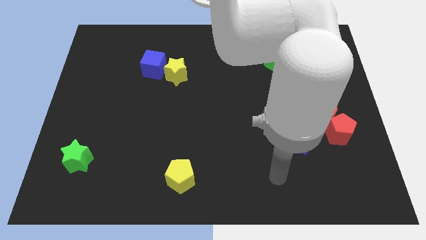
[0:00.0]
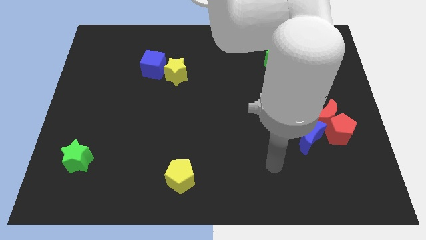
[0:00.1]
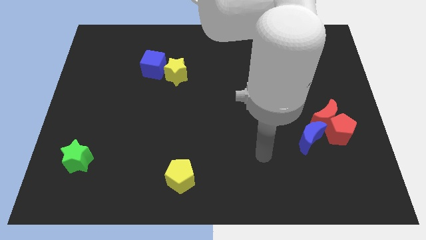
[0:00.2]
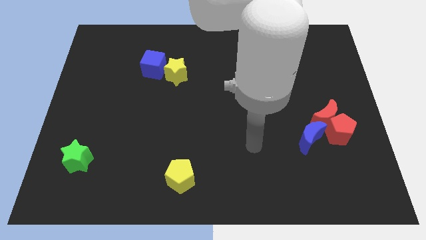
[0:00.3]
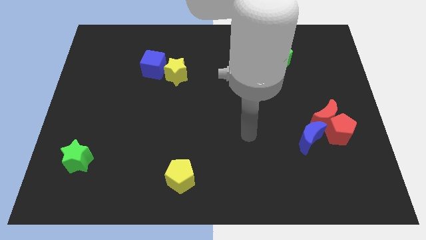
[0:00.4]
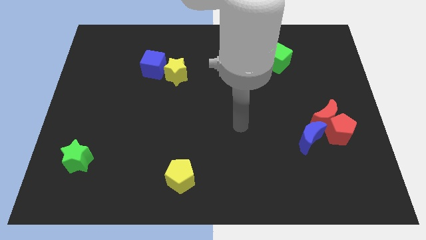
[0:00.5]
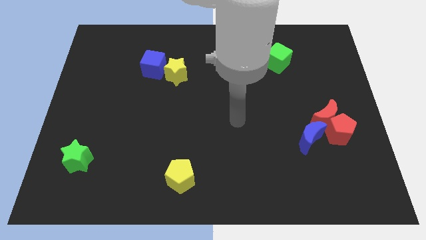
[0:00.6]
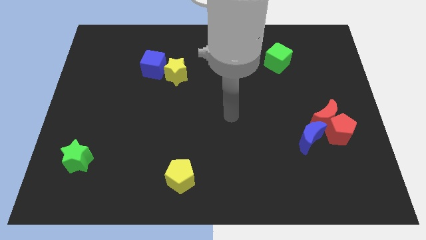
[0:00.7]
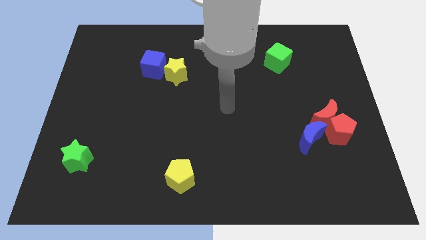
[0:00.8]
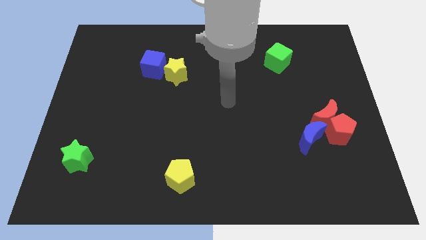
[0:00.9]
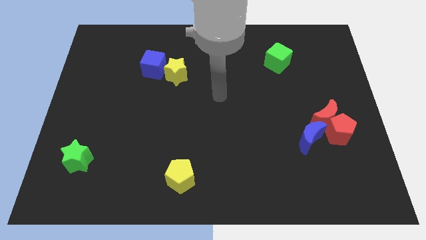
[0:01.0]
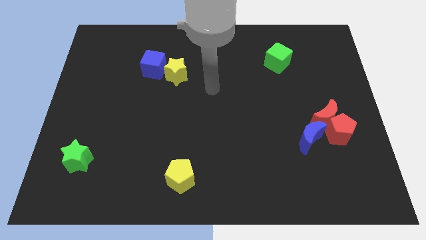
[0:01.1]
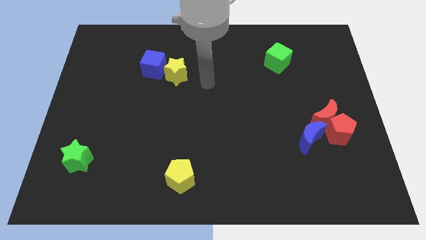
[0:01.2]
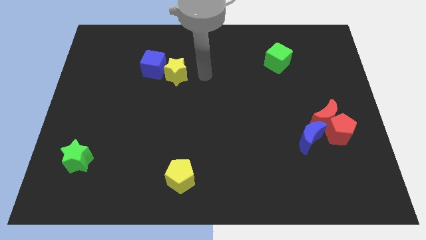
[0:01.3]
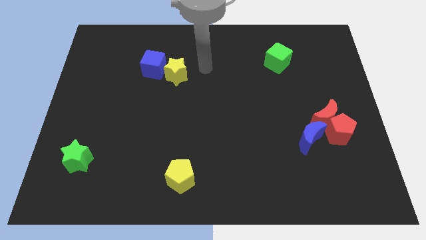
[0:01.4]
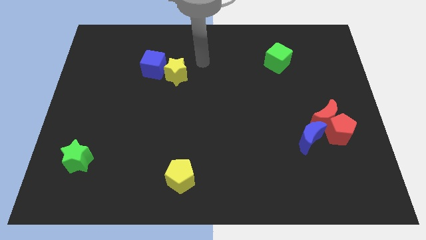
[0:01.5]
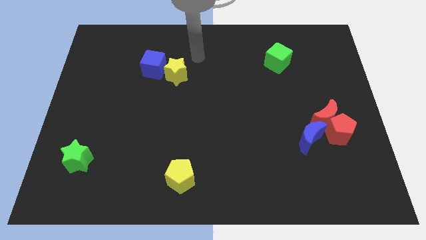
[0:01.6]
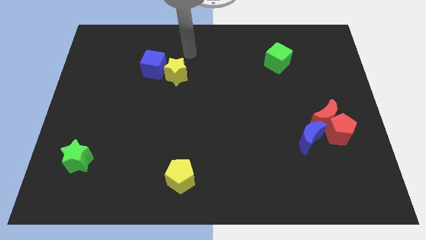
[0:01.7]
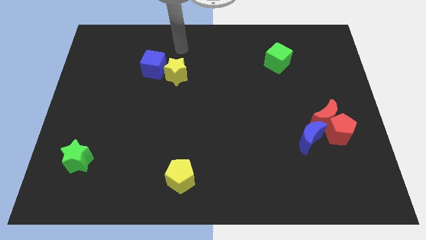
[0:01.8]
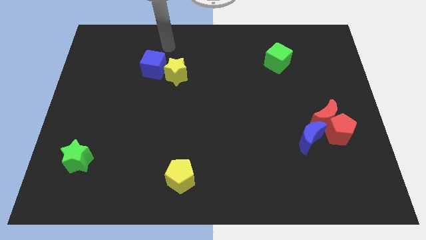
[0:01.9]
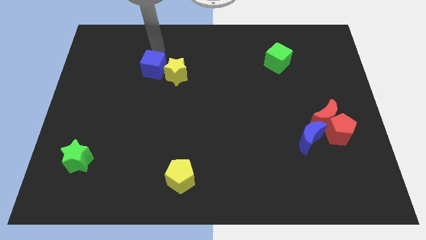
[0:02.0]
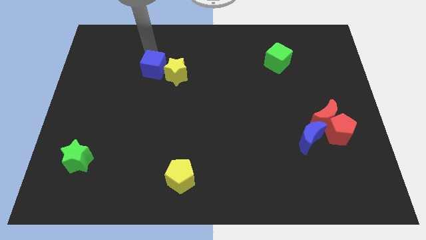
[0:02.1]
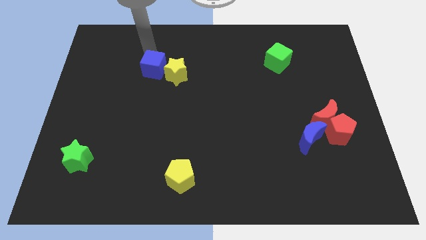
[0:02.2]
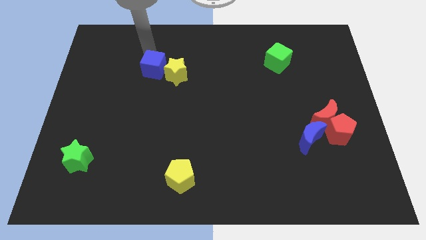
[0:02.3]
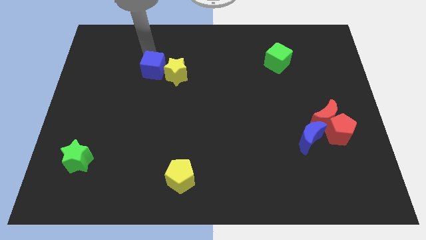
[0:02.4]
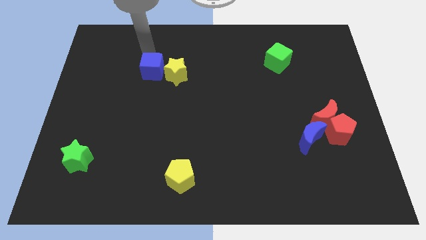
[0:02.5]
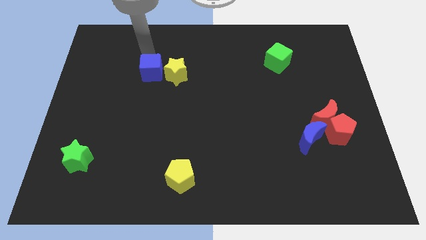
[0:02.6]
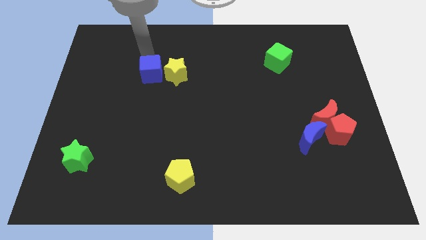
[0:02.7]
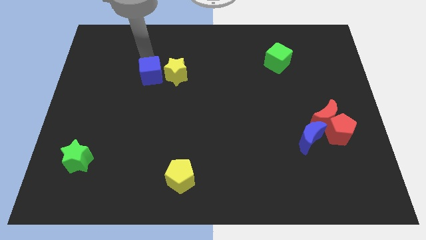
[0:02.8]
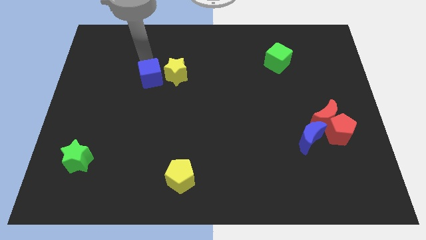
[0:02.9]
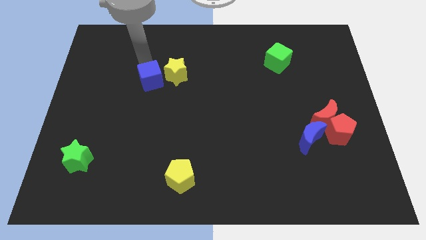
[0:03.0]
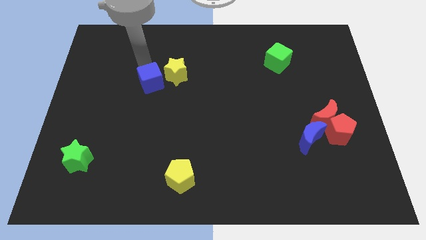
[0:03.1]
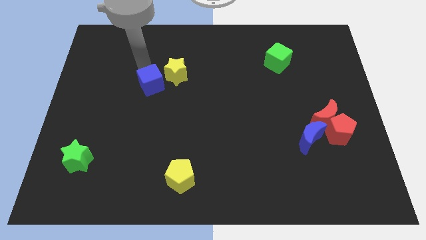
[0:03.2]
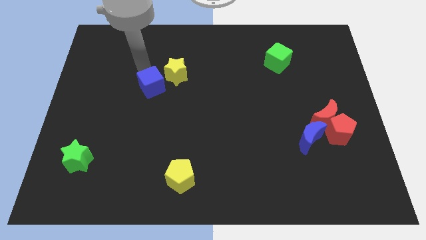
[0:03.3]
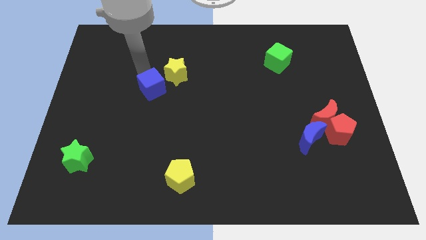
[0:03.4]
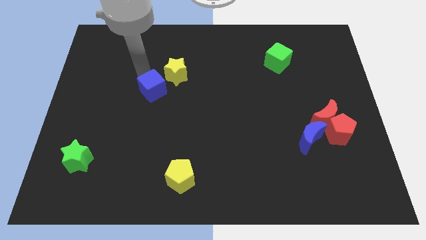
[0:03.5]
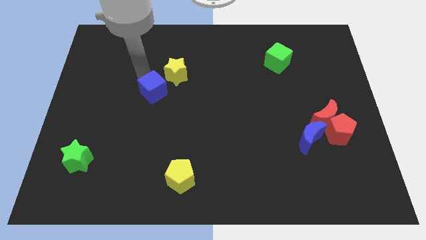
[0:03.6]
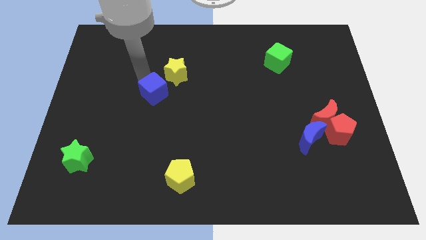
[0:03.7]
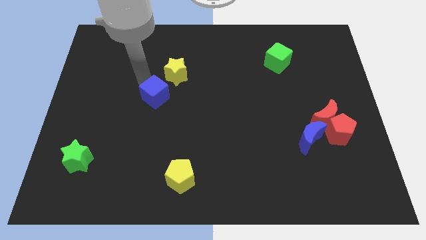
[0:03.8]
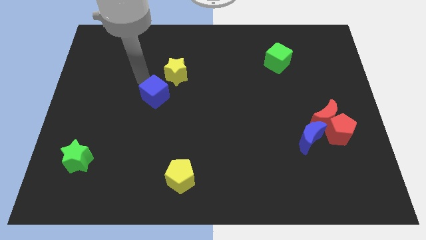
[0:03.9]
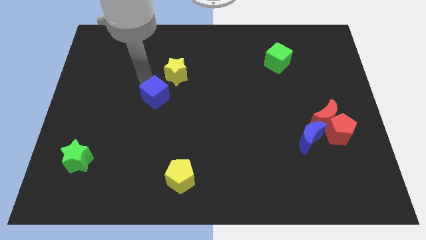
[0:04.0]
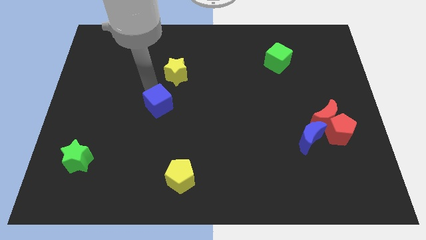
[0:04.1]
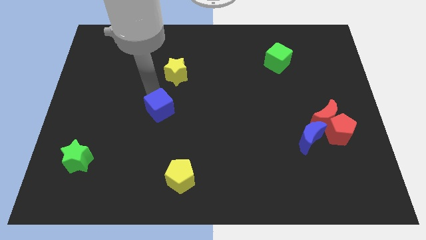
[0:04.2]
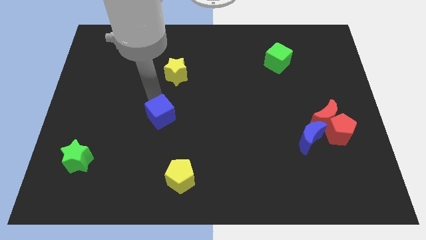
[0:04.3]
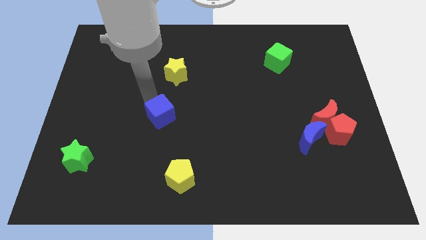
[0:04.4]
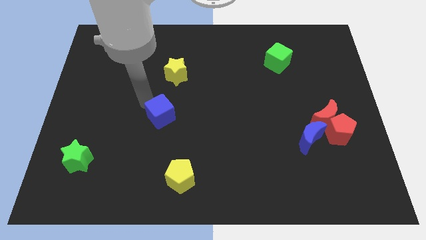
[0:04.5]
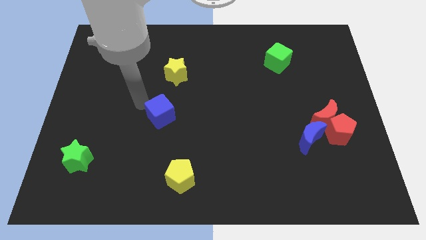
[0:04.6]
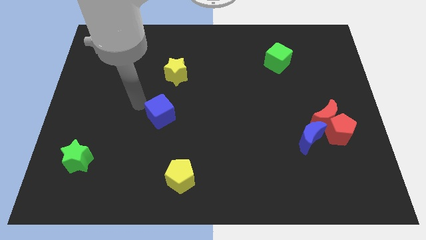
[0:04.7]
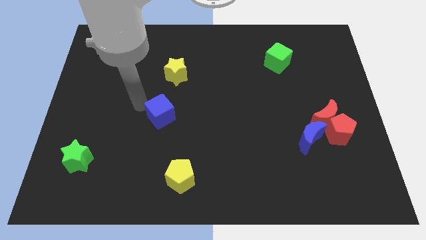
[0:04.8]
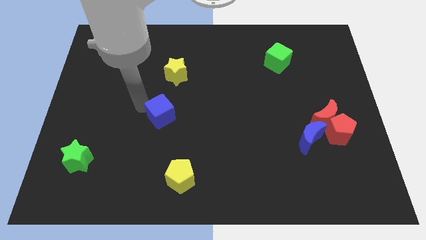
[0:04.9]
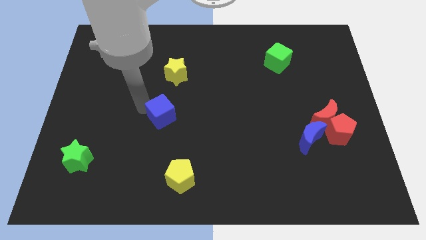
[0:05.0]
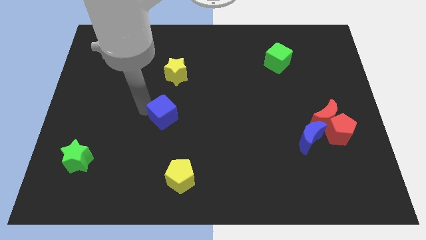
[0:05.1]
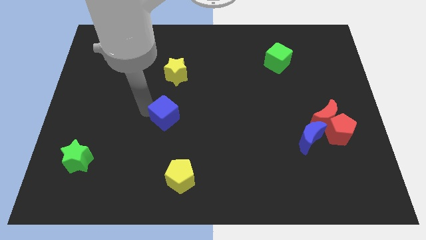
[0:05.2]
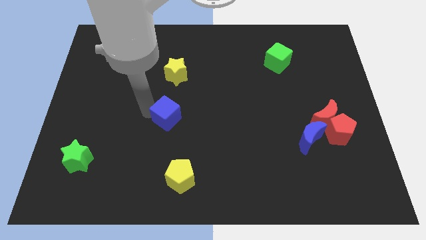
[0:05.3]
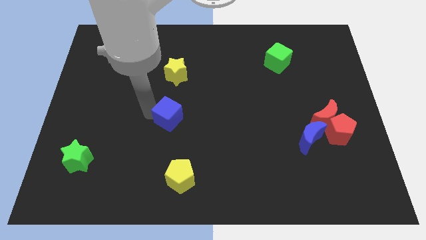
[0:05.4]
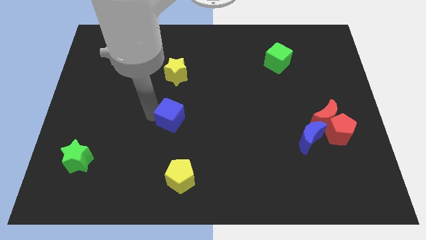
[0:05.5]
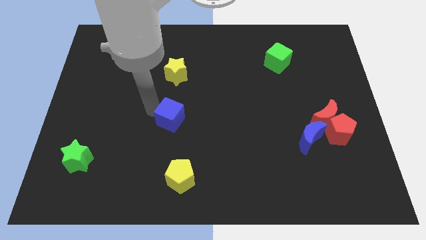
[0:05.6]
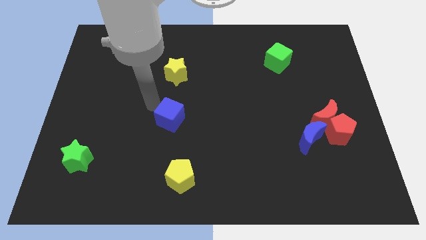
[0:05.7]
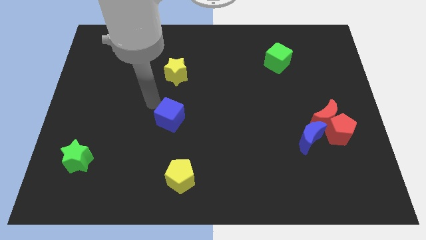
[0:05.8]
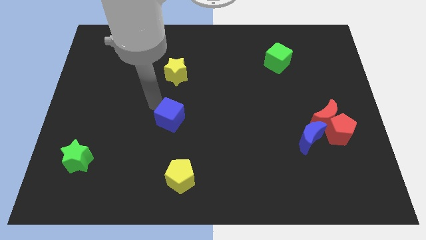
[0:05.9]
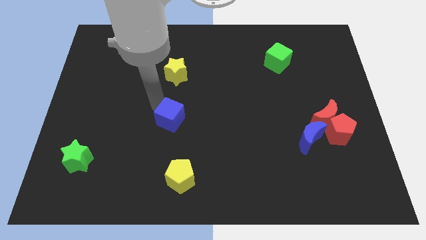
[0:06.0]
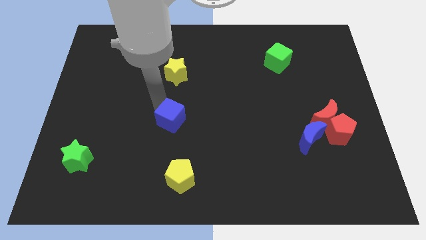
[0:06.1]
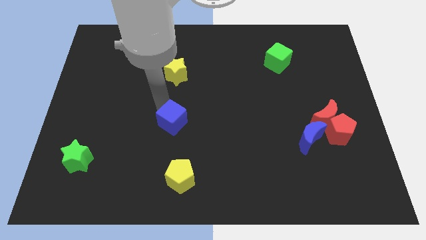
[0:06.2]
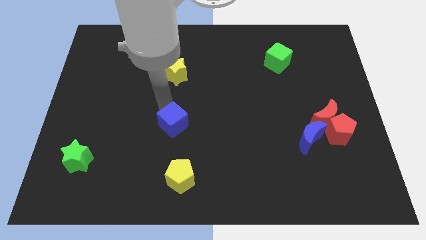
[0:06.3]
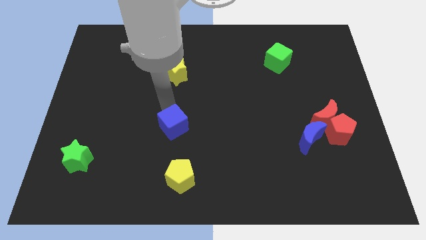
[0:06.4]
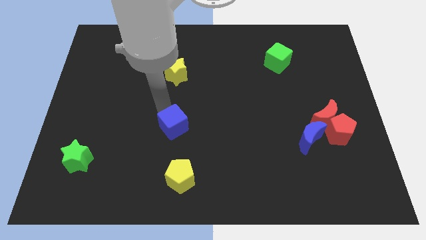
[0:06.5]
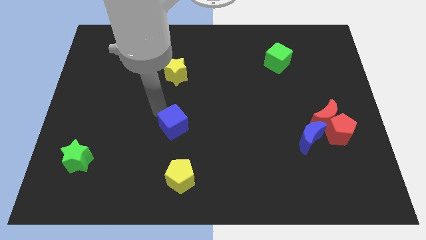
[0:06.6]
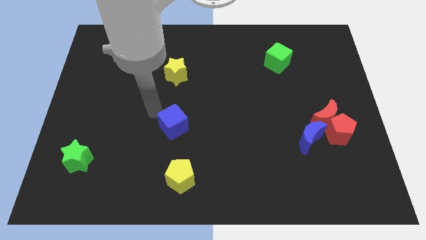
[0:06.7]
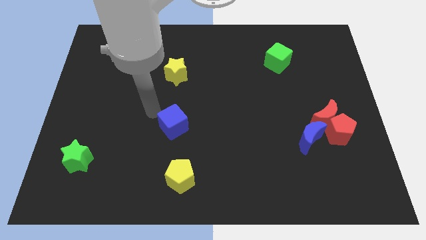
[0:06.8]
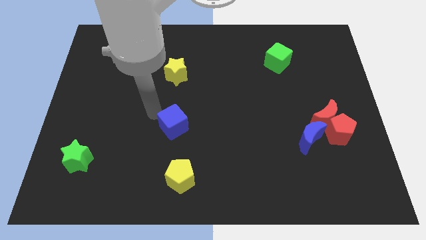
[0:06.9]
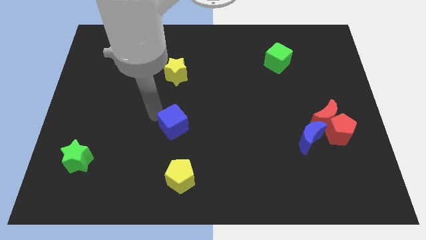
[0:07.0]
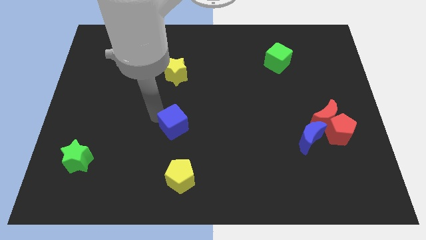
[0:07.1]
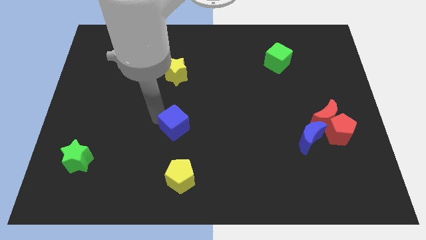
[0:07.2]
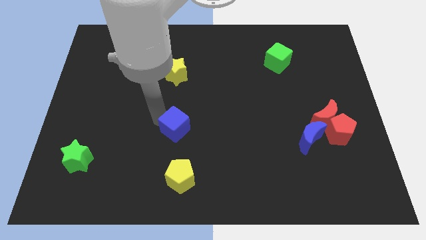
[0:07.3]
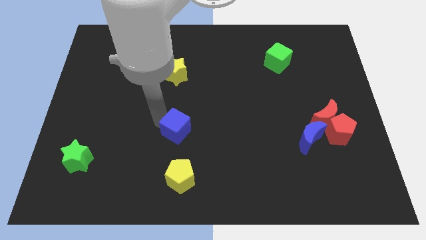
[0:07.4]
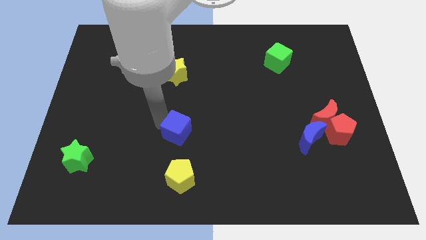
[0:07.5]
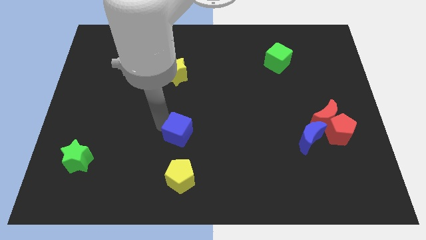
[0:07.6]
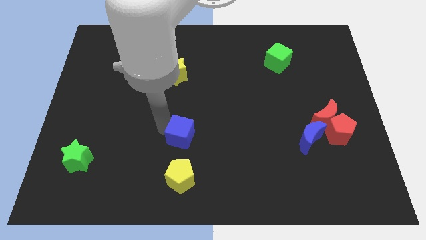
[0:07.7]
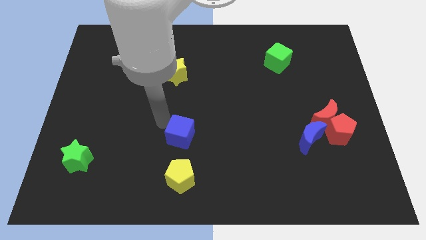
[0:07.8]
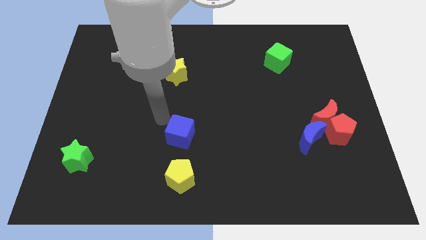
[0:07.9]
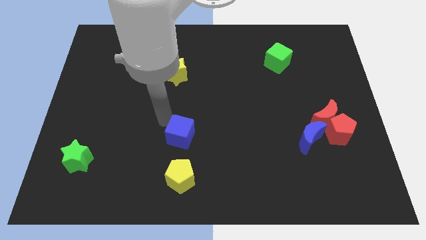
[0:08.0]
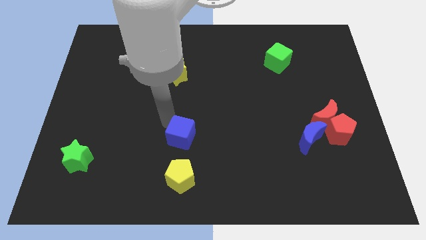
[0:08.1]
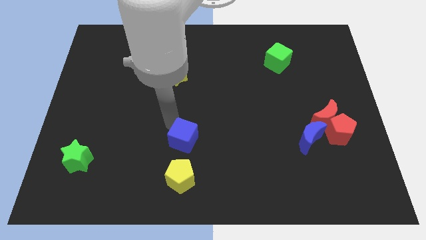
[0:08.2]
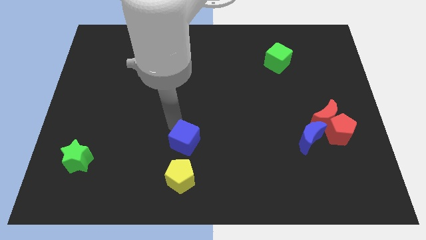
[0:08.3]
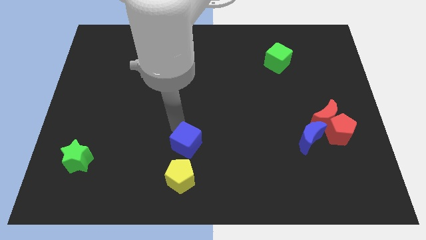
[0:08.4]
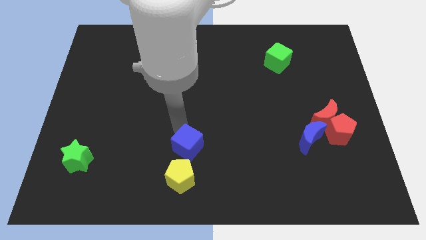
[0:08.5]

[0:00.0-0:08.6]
slide the blue cube to the top right side of the yellow pentagon
